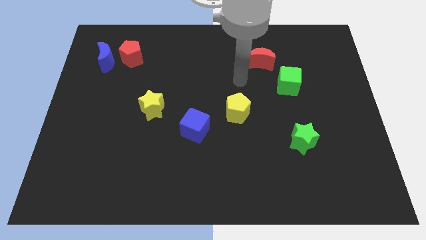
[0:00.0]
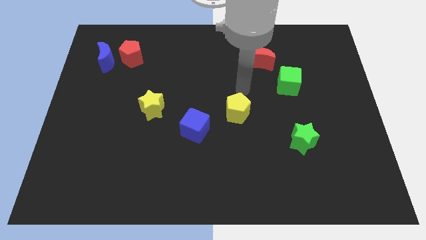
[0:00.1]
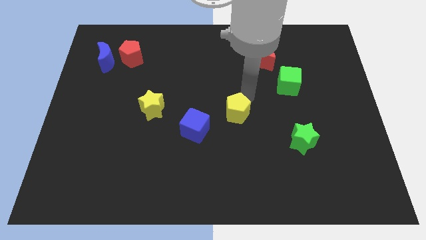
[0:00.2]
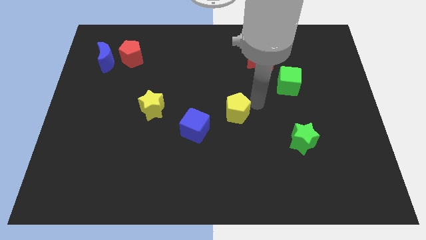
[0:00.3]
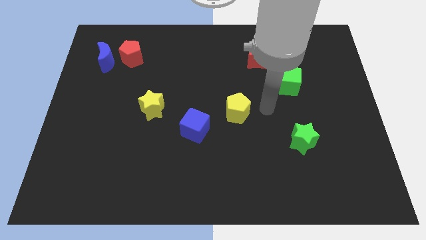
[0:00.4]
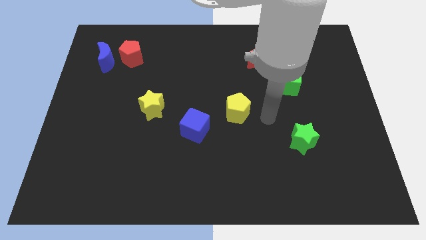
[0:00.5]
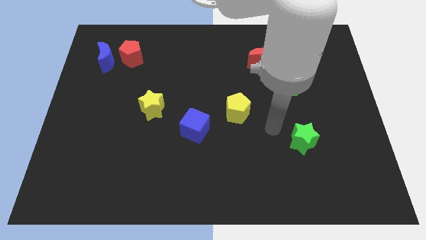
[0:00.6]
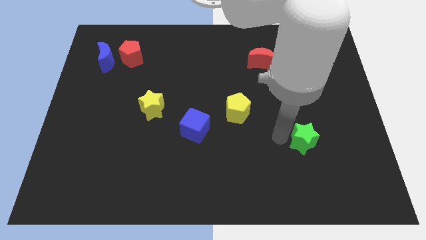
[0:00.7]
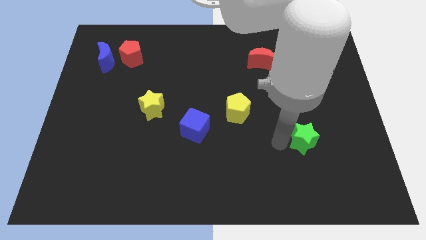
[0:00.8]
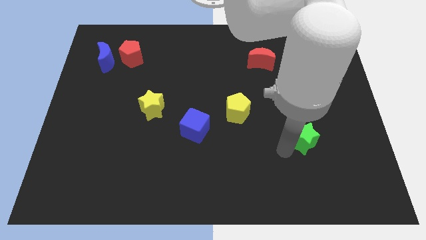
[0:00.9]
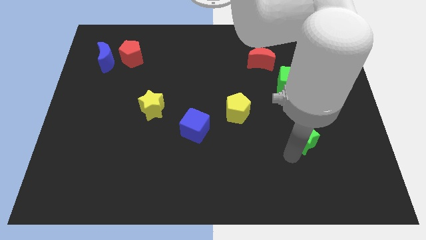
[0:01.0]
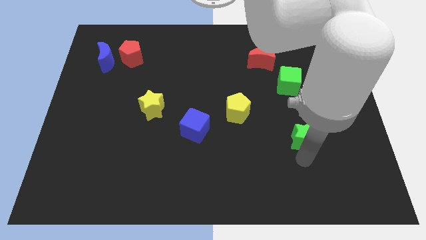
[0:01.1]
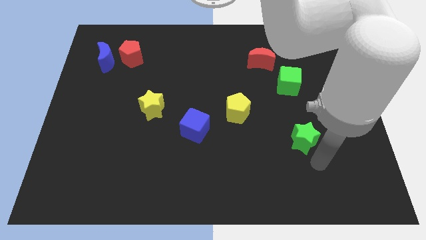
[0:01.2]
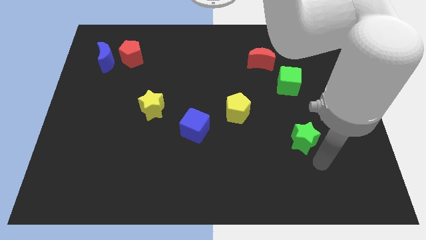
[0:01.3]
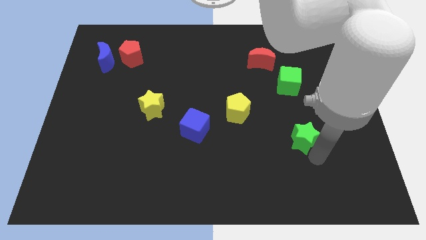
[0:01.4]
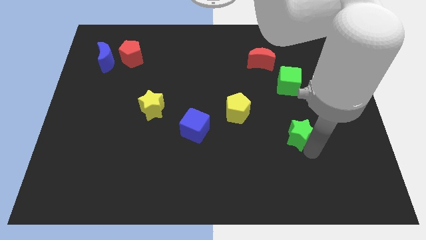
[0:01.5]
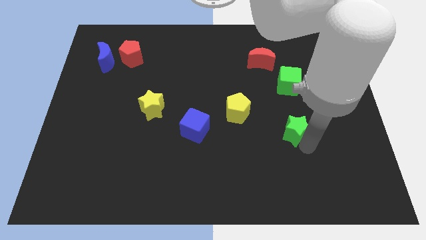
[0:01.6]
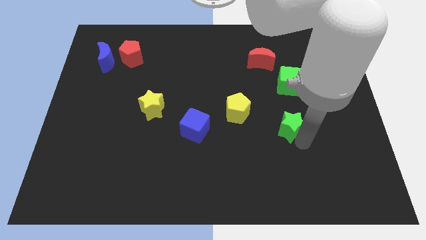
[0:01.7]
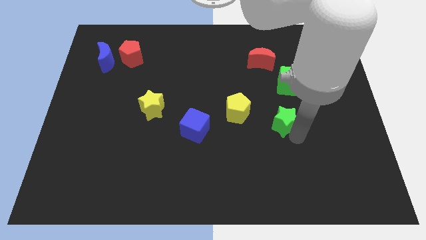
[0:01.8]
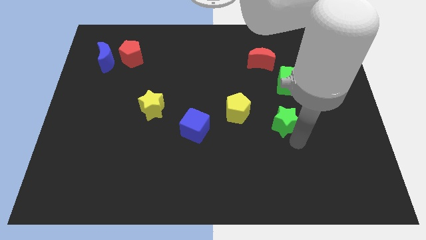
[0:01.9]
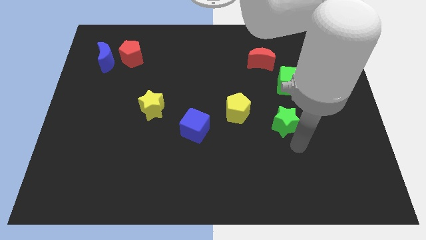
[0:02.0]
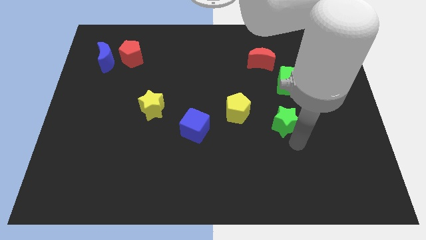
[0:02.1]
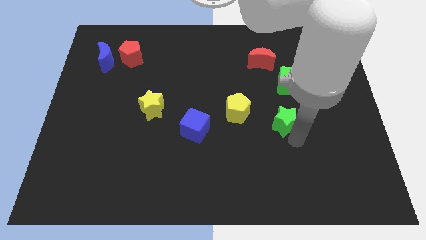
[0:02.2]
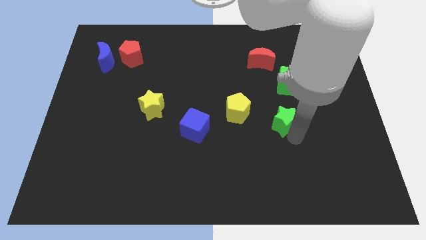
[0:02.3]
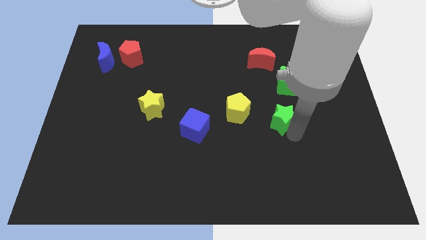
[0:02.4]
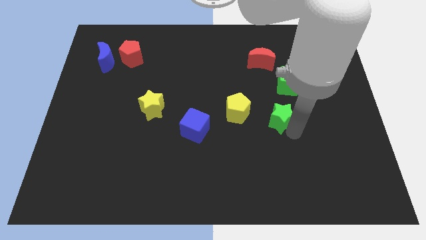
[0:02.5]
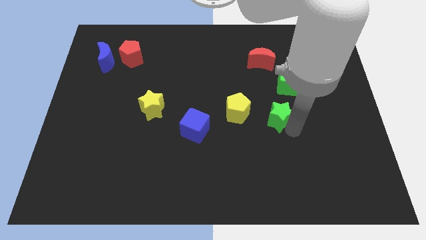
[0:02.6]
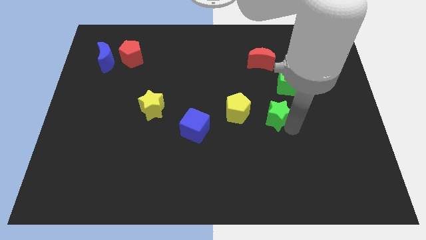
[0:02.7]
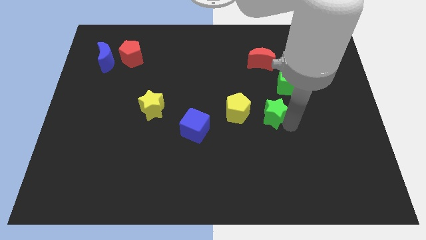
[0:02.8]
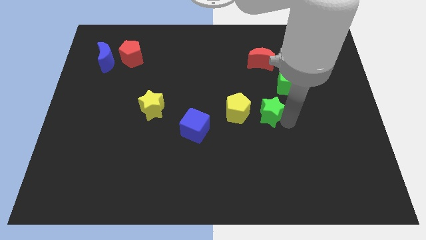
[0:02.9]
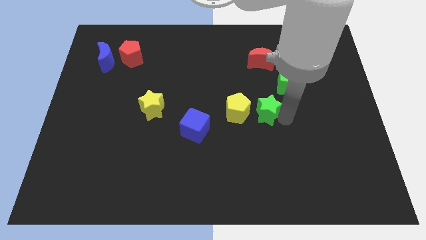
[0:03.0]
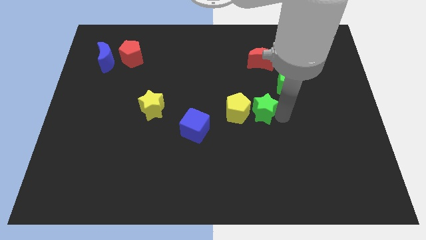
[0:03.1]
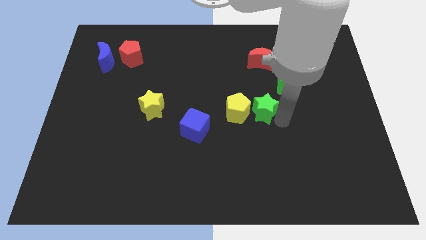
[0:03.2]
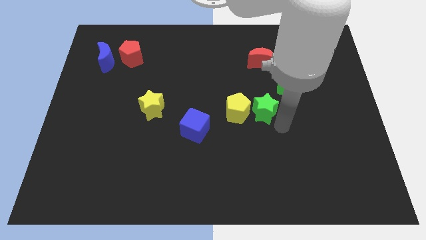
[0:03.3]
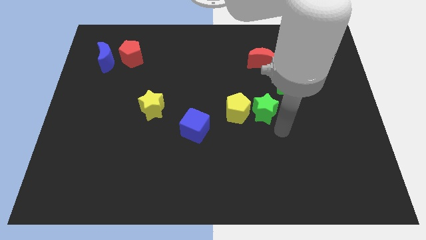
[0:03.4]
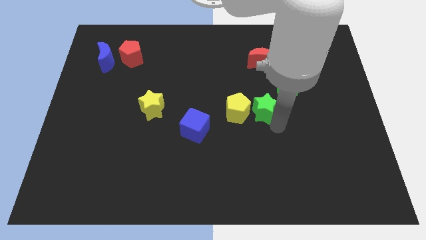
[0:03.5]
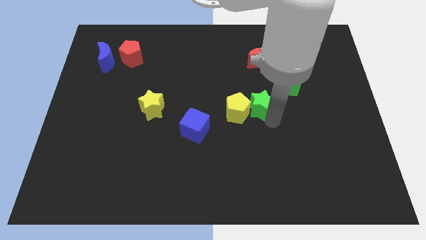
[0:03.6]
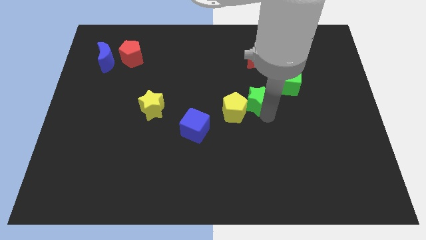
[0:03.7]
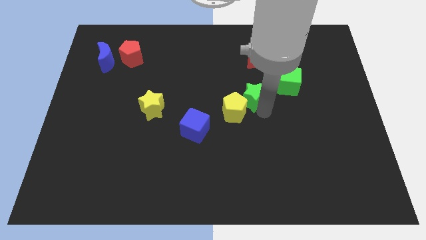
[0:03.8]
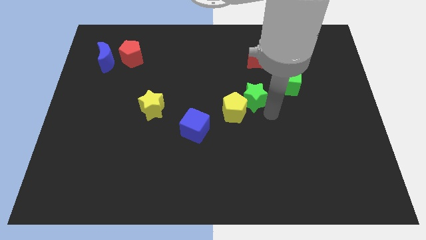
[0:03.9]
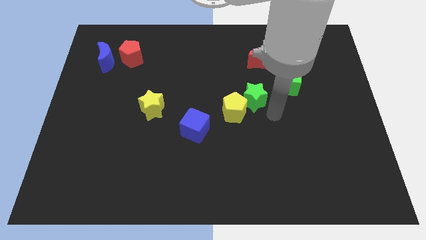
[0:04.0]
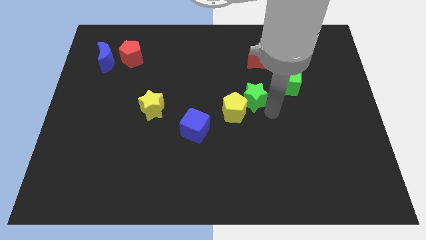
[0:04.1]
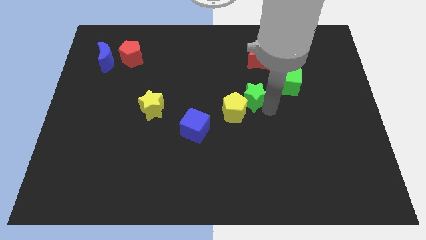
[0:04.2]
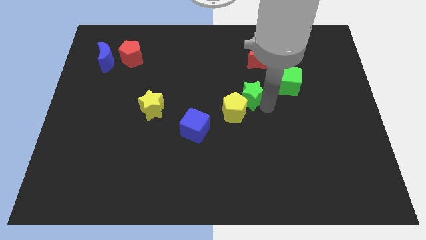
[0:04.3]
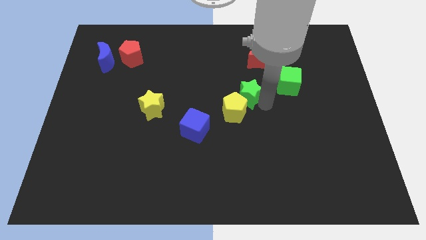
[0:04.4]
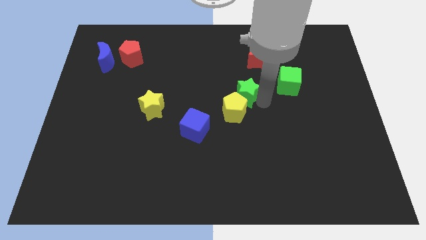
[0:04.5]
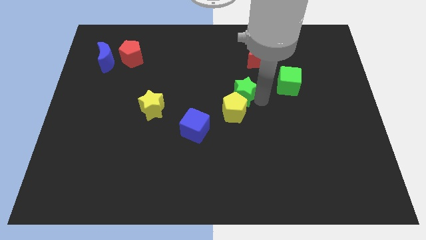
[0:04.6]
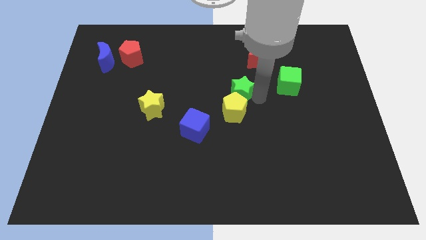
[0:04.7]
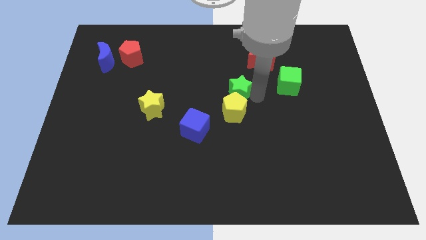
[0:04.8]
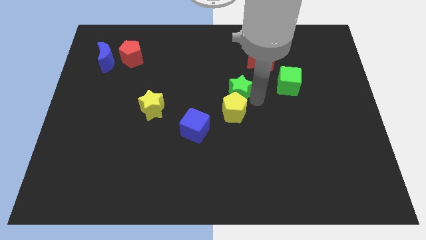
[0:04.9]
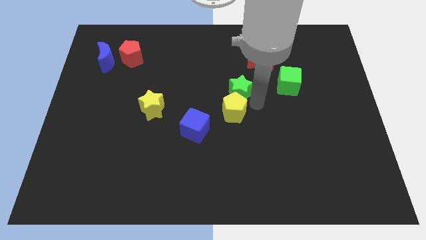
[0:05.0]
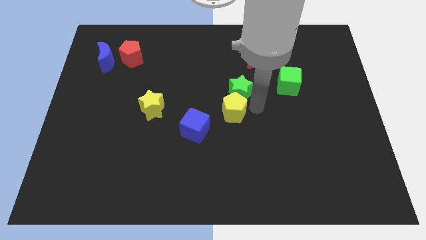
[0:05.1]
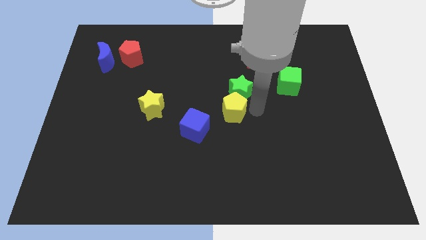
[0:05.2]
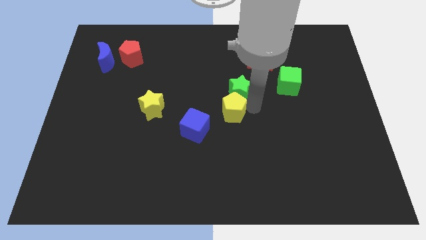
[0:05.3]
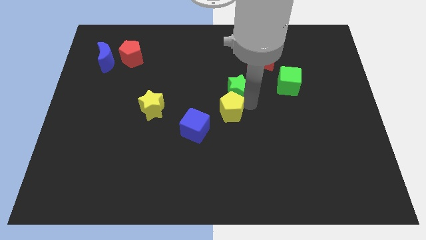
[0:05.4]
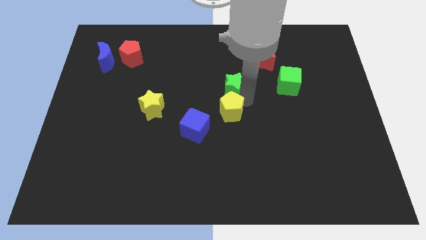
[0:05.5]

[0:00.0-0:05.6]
move the green star upwards and left diagonally

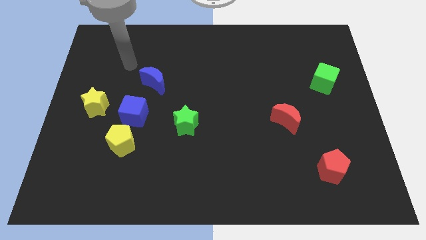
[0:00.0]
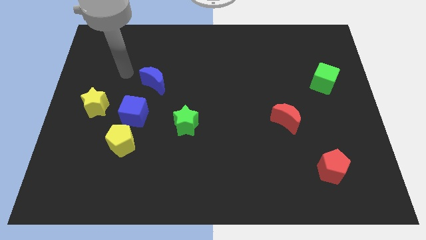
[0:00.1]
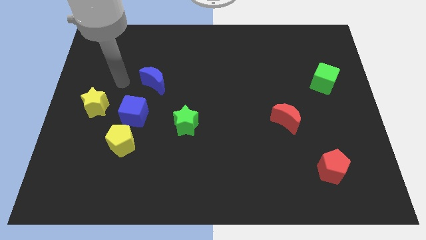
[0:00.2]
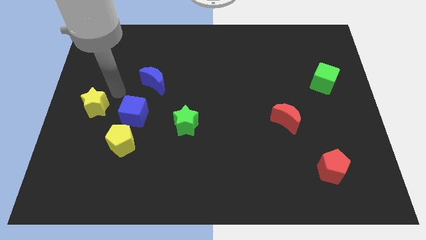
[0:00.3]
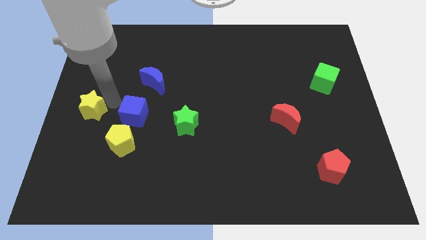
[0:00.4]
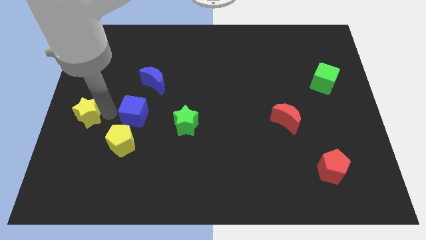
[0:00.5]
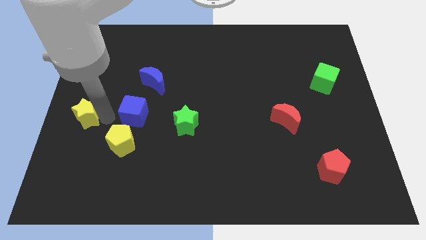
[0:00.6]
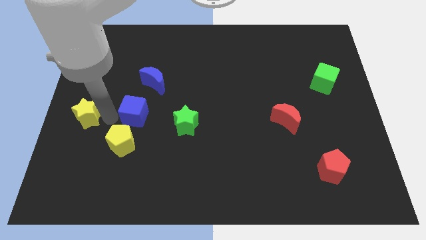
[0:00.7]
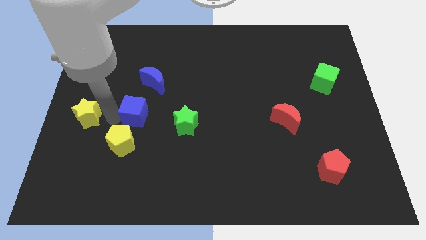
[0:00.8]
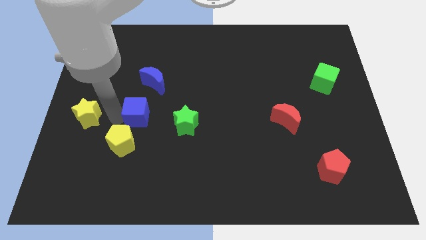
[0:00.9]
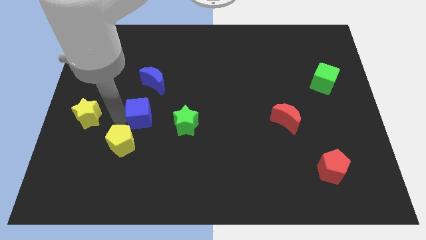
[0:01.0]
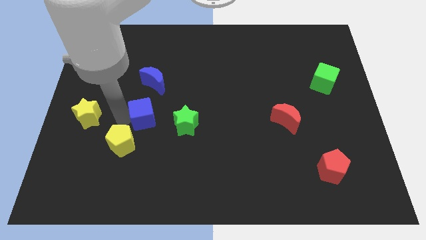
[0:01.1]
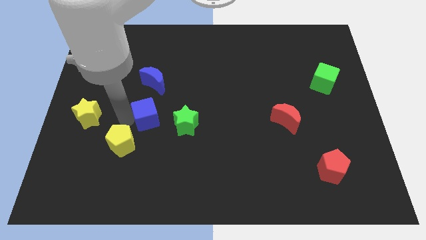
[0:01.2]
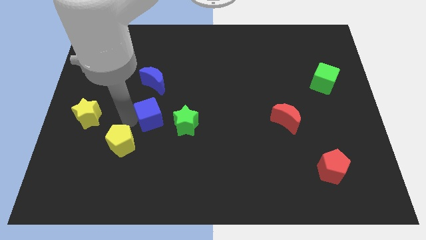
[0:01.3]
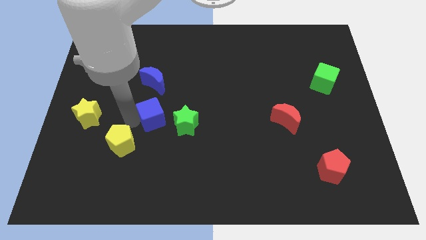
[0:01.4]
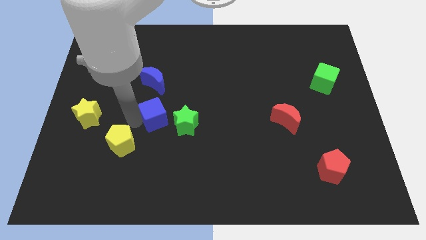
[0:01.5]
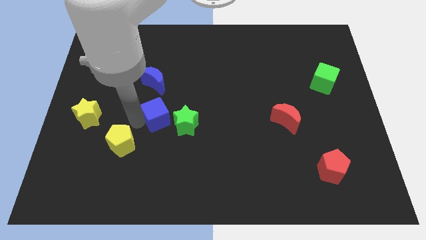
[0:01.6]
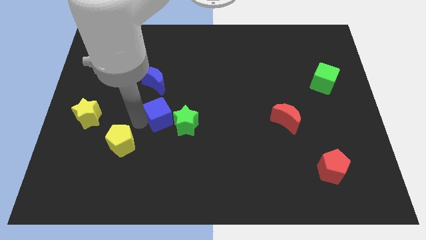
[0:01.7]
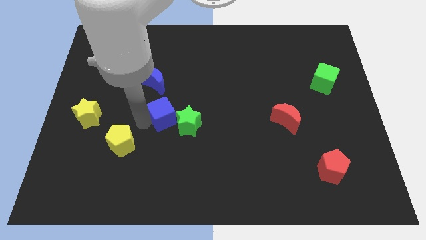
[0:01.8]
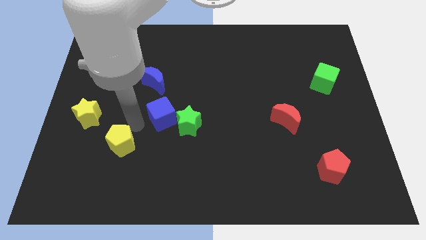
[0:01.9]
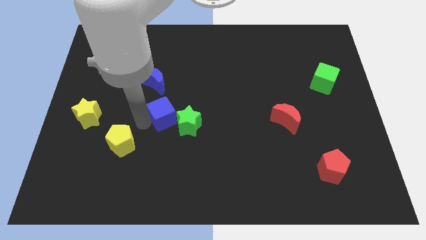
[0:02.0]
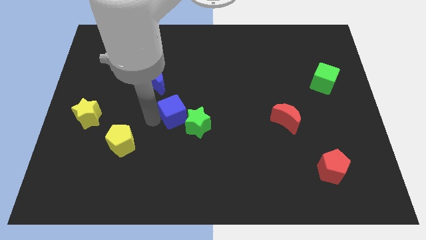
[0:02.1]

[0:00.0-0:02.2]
move the blue cube a little right

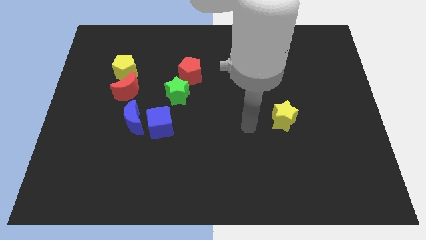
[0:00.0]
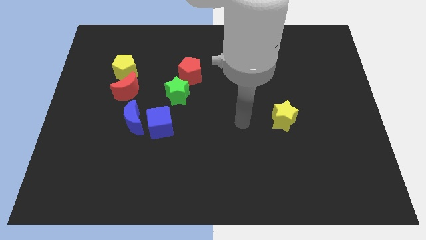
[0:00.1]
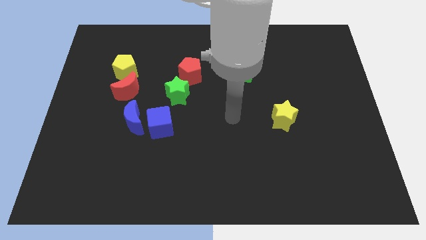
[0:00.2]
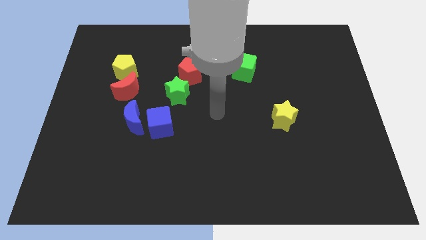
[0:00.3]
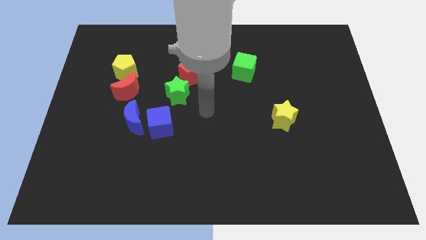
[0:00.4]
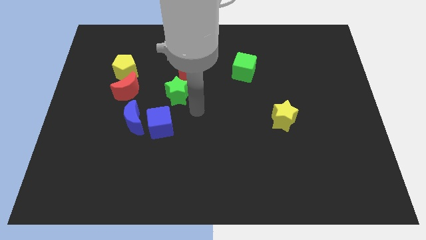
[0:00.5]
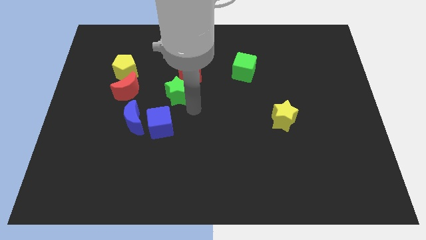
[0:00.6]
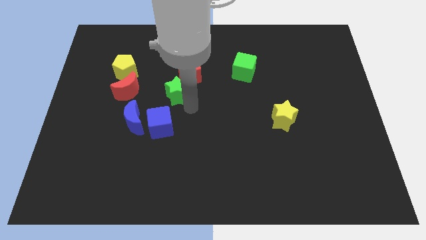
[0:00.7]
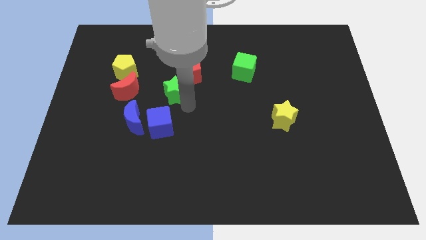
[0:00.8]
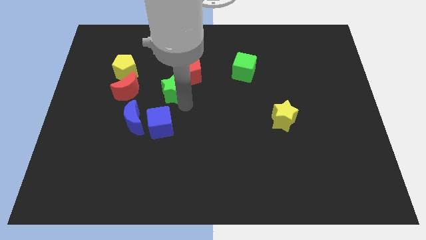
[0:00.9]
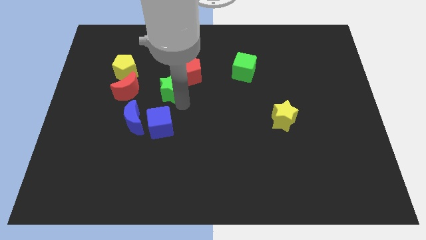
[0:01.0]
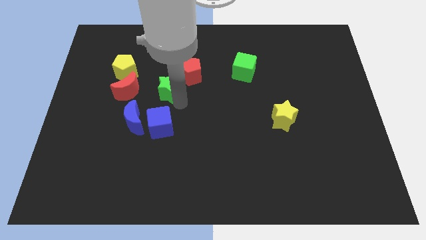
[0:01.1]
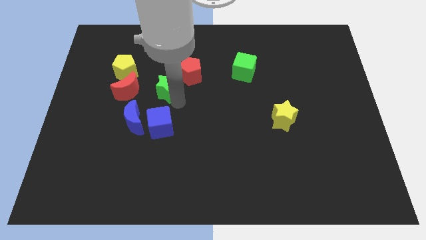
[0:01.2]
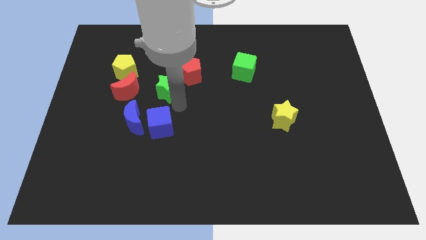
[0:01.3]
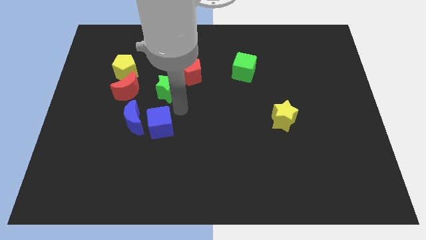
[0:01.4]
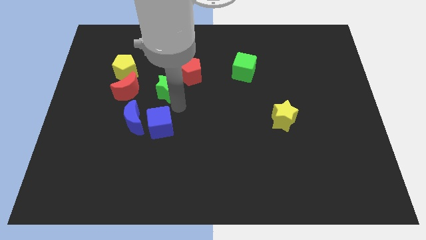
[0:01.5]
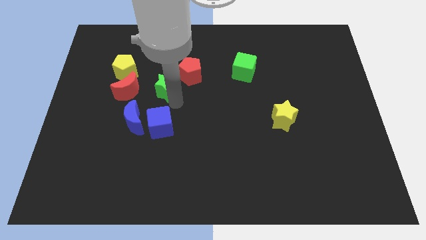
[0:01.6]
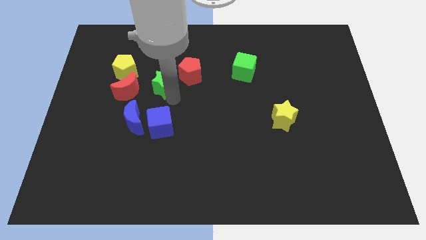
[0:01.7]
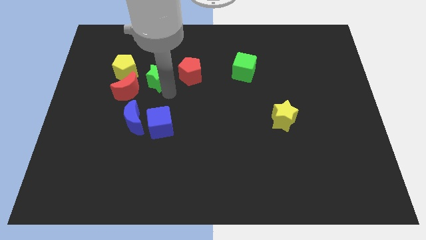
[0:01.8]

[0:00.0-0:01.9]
push the green star a little upwards and then to the left
